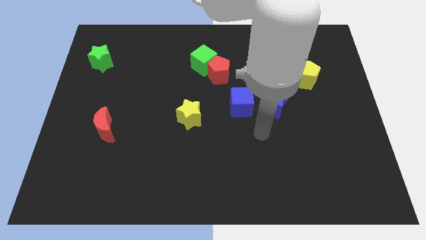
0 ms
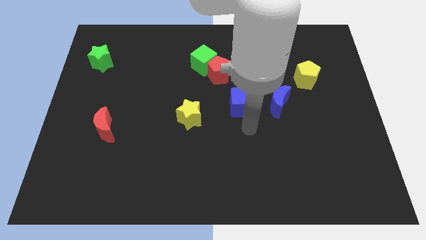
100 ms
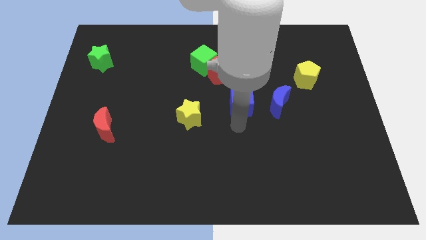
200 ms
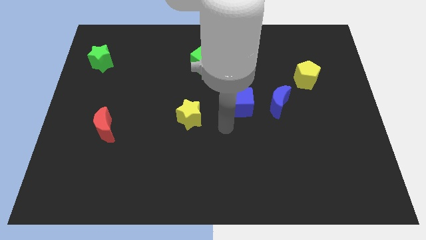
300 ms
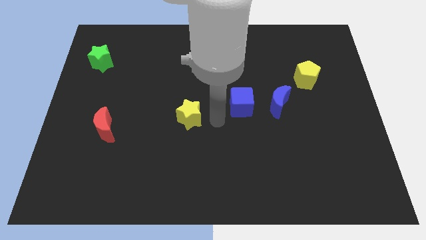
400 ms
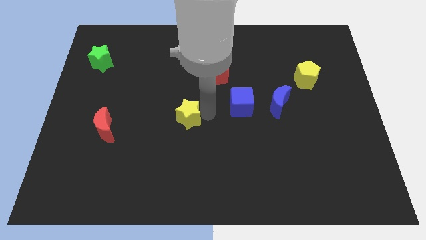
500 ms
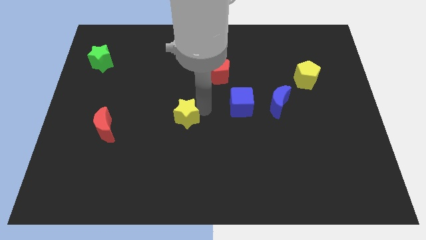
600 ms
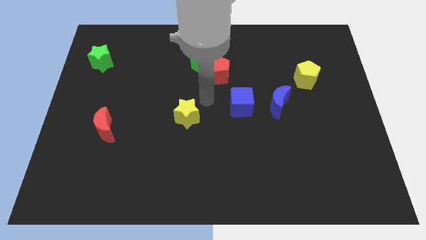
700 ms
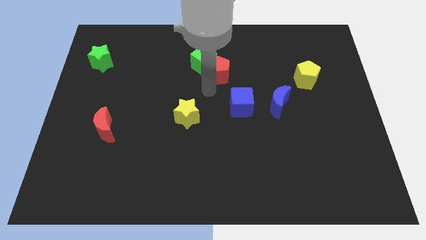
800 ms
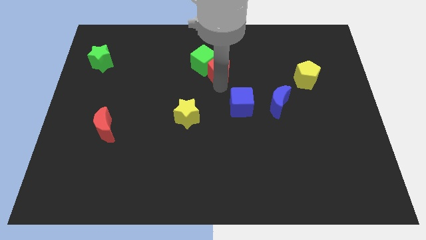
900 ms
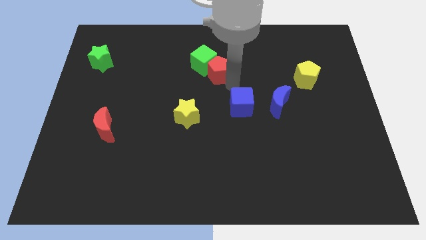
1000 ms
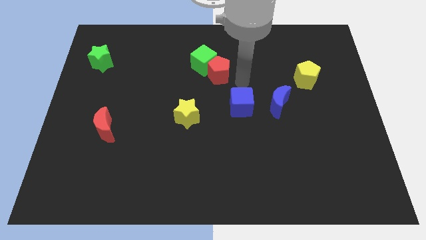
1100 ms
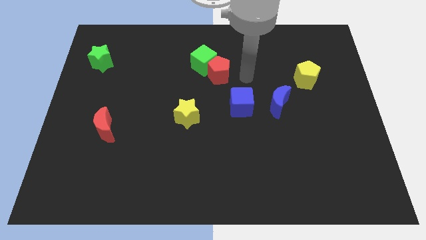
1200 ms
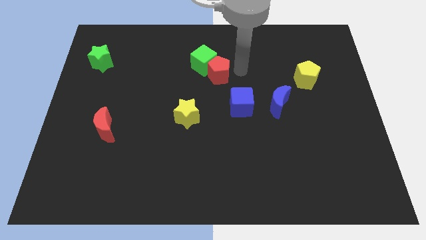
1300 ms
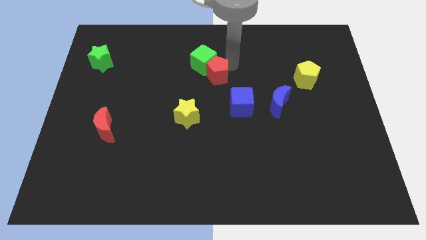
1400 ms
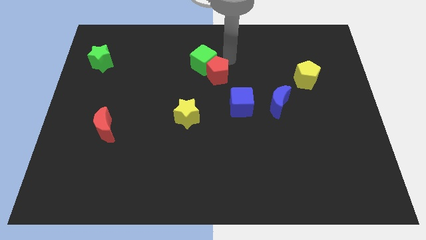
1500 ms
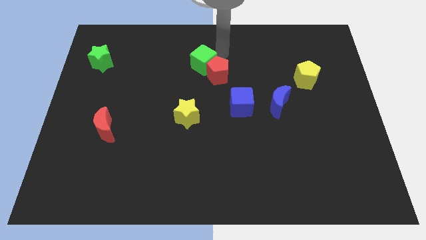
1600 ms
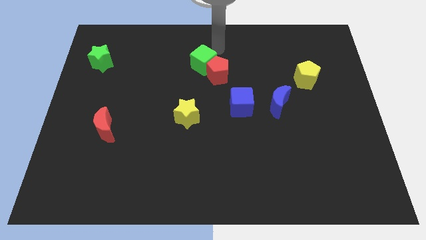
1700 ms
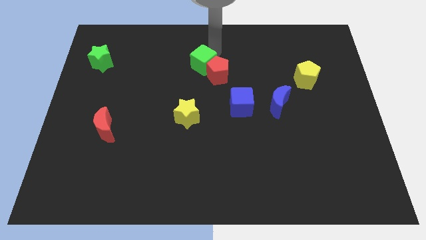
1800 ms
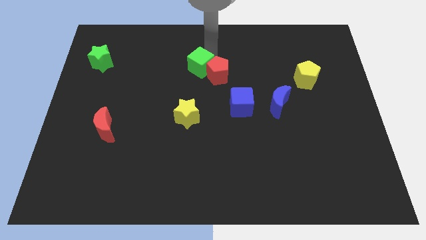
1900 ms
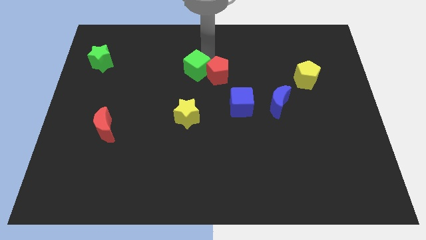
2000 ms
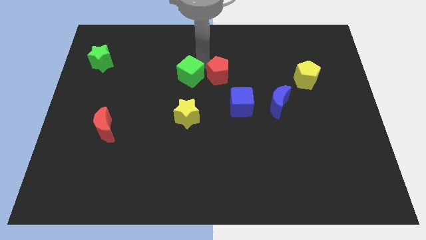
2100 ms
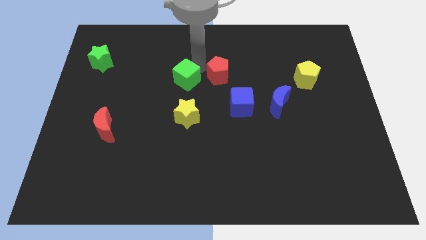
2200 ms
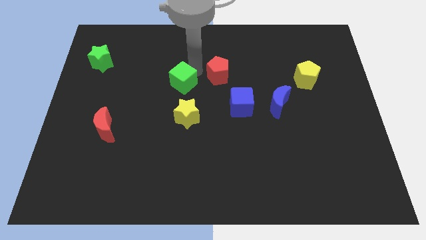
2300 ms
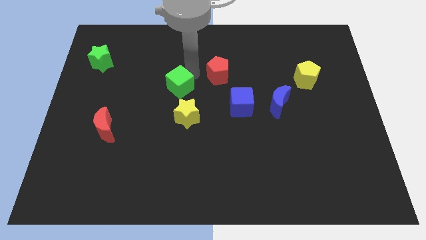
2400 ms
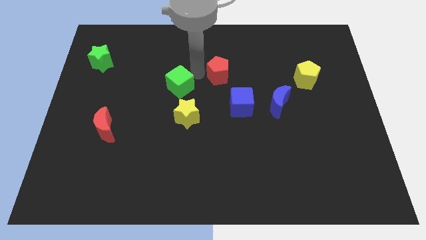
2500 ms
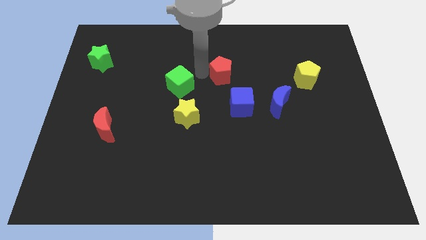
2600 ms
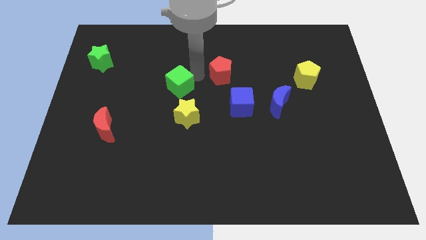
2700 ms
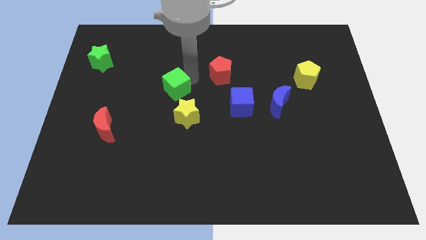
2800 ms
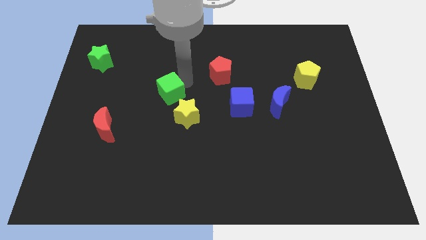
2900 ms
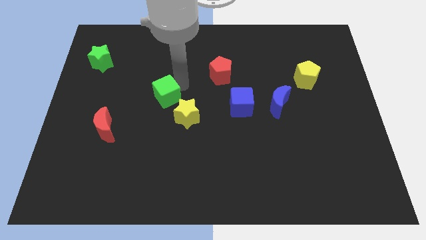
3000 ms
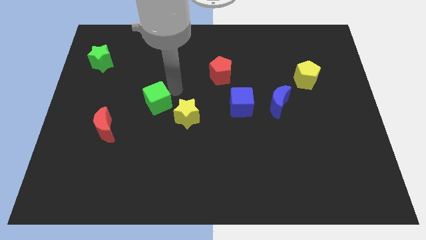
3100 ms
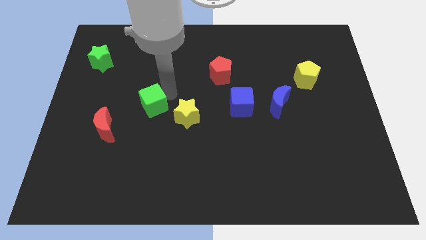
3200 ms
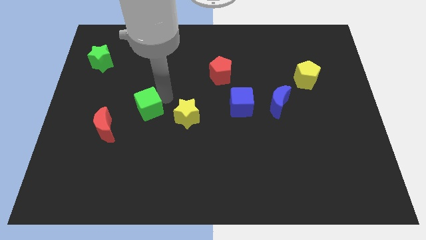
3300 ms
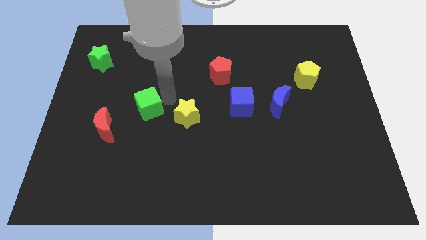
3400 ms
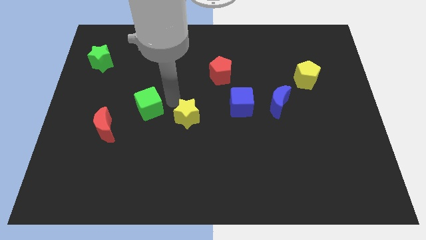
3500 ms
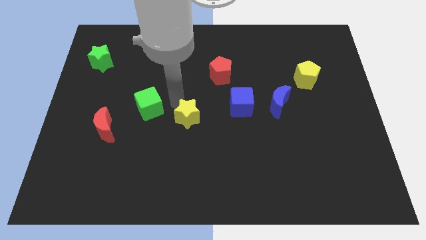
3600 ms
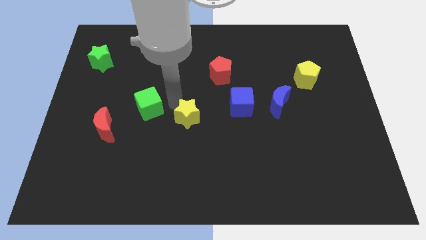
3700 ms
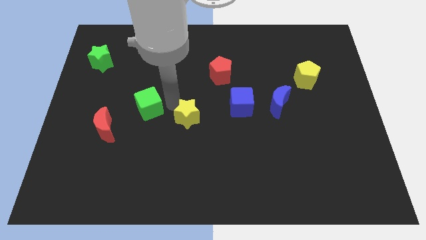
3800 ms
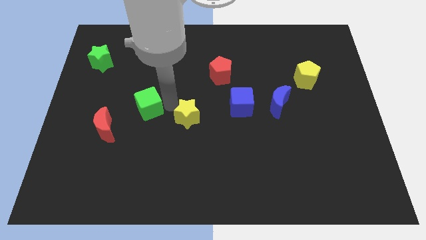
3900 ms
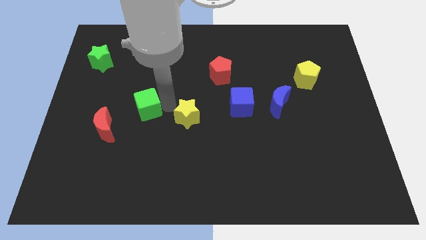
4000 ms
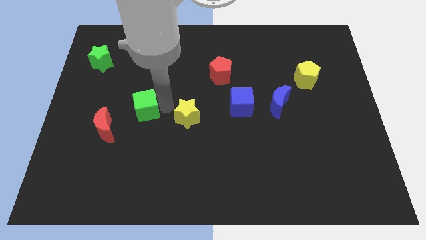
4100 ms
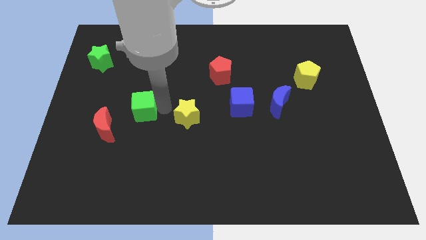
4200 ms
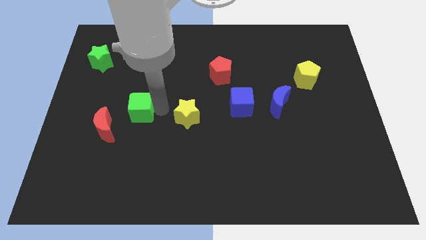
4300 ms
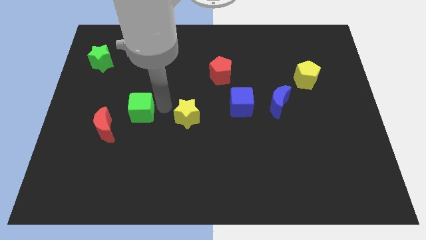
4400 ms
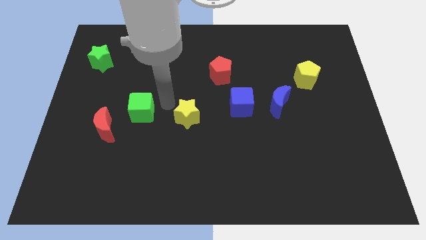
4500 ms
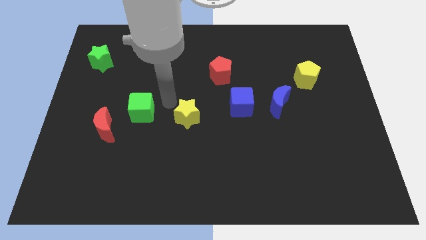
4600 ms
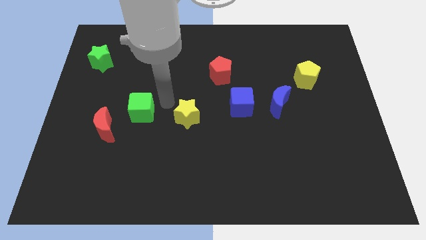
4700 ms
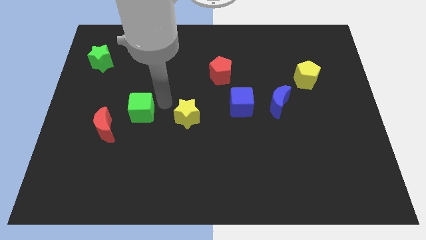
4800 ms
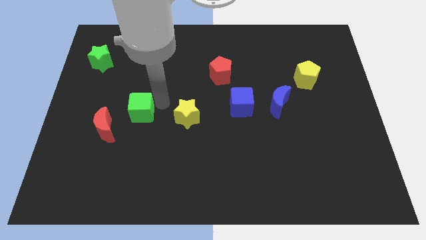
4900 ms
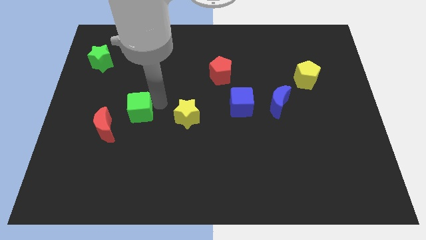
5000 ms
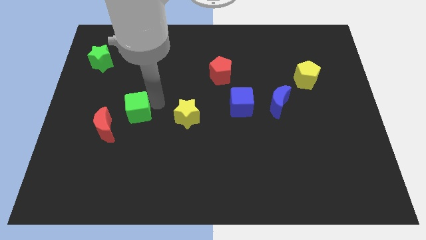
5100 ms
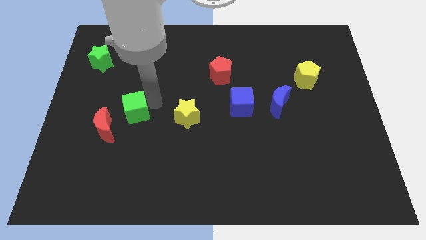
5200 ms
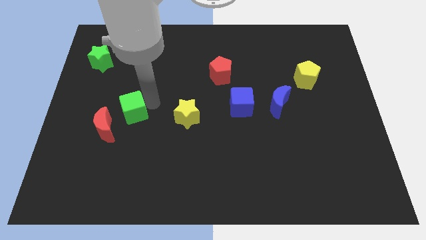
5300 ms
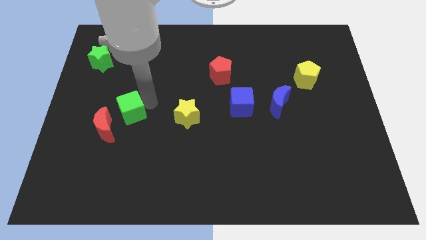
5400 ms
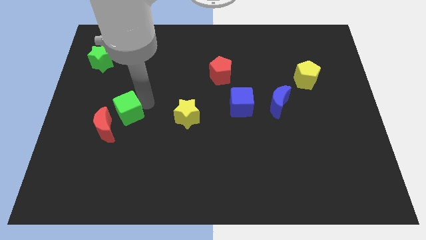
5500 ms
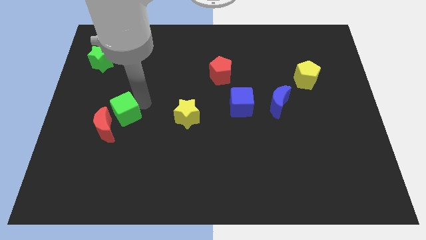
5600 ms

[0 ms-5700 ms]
slide the green cube towards the red moon

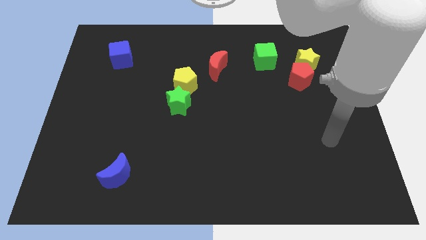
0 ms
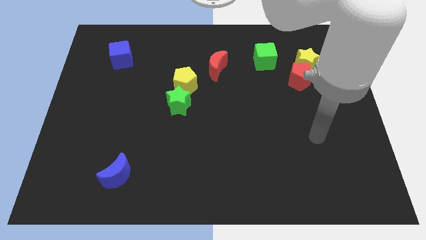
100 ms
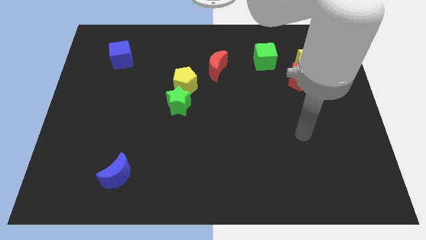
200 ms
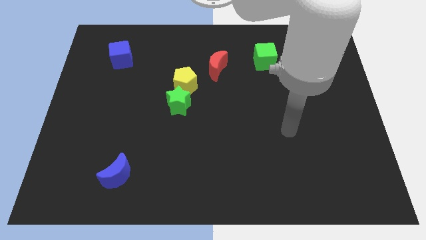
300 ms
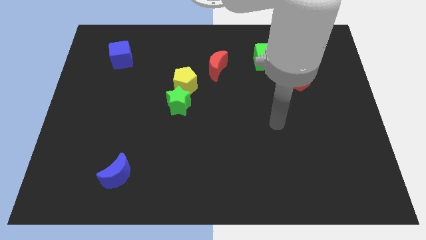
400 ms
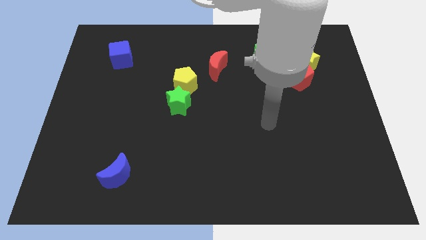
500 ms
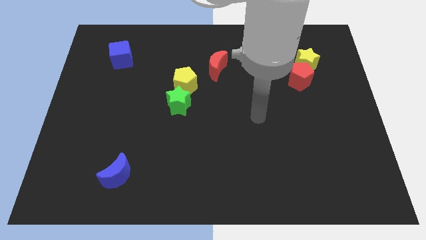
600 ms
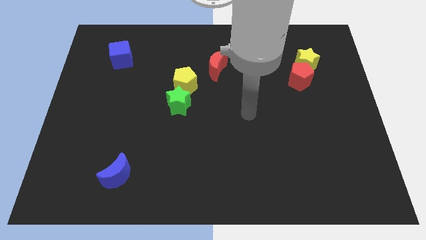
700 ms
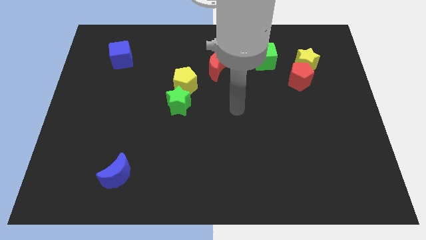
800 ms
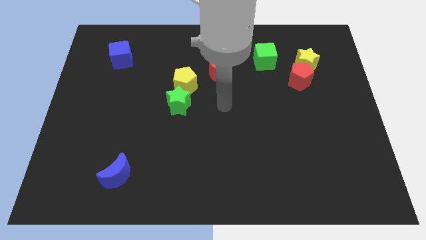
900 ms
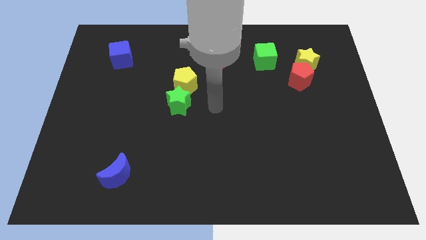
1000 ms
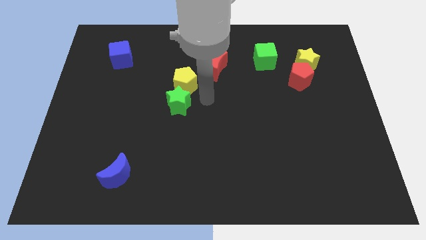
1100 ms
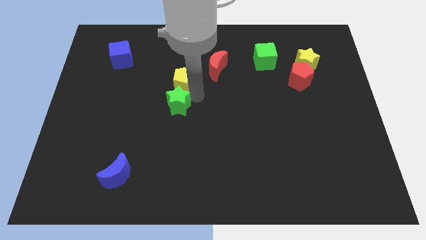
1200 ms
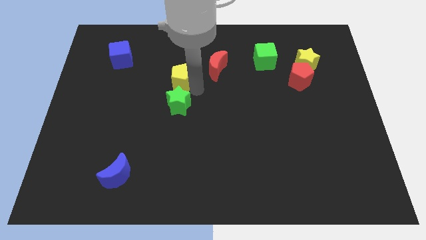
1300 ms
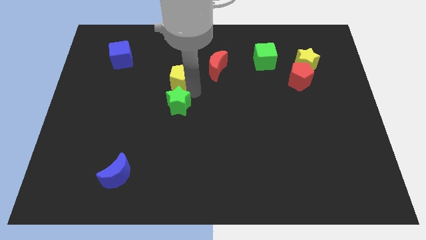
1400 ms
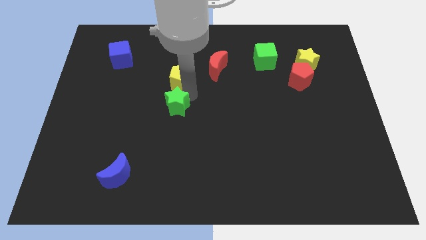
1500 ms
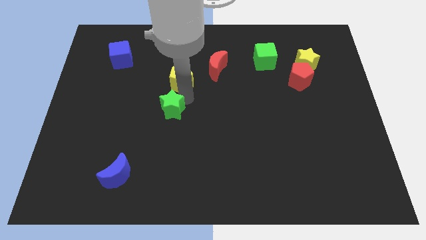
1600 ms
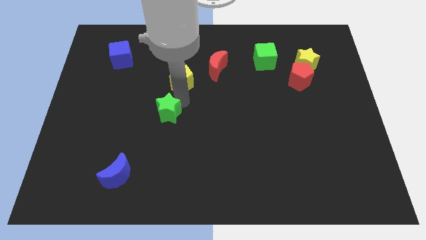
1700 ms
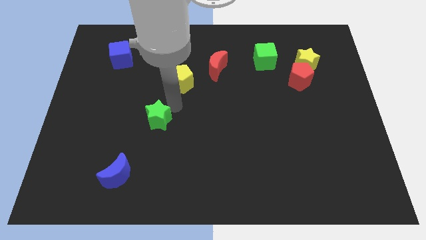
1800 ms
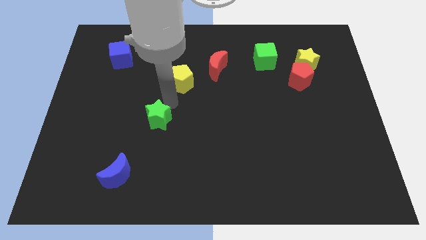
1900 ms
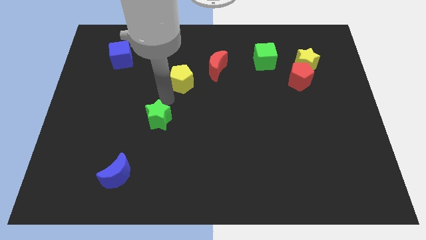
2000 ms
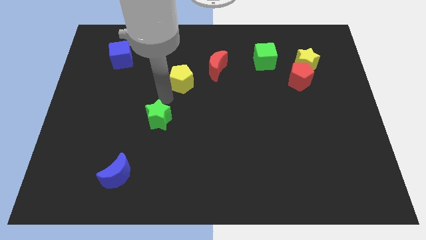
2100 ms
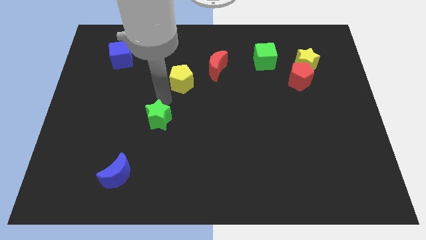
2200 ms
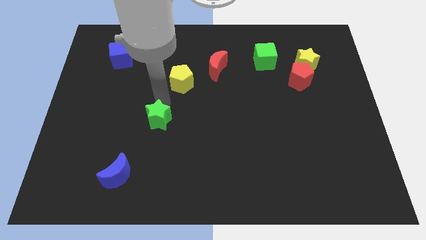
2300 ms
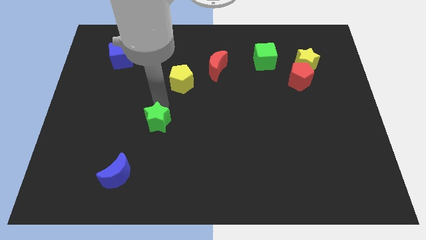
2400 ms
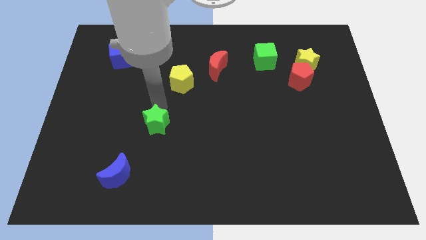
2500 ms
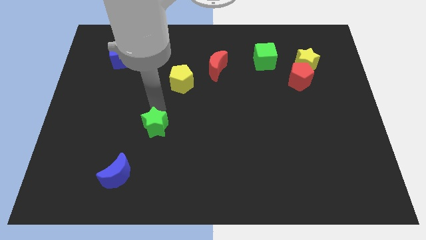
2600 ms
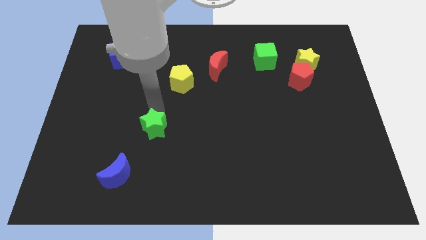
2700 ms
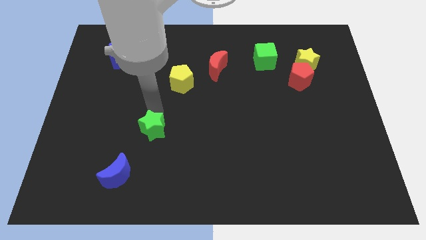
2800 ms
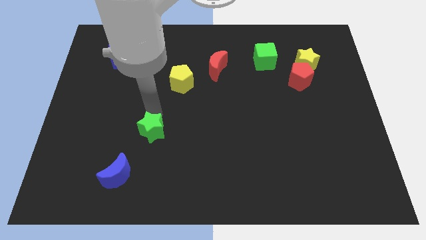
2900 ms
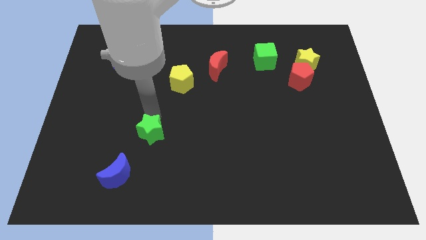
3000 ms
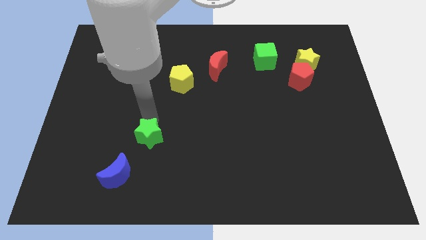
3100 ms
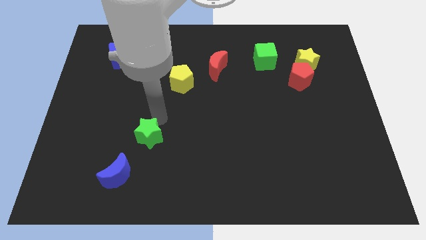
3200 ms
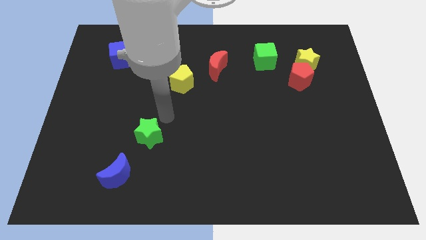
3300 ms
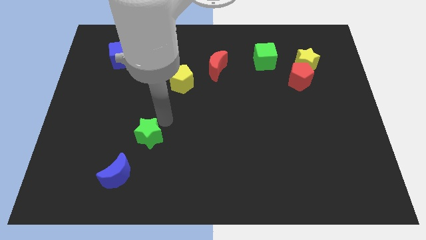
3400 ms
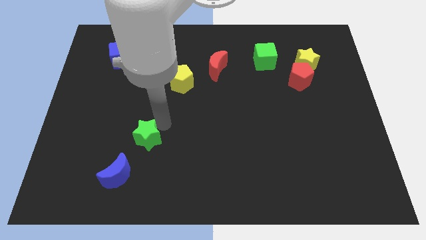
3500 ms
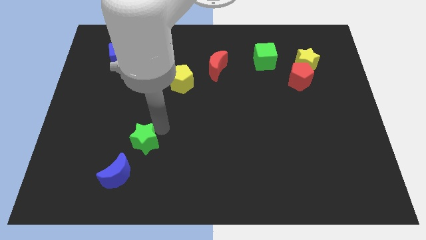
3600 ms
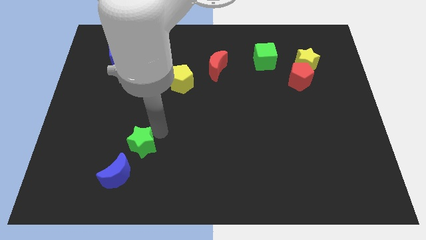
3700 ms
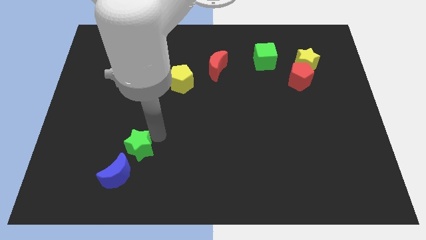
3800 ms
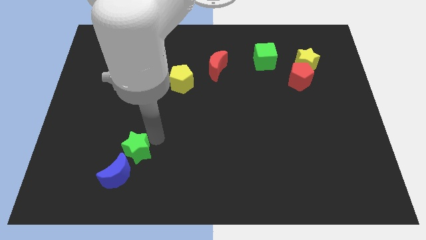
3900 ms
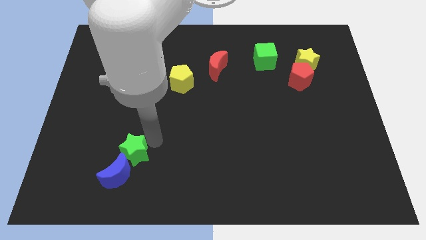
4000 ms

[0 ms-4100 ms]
push the green star next to the blue moon
